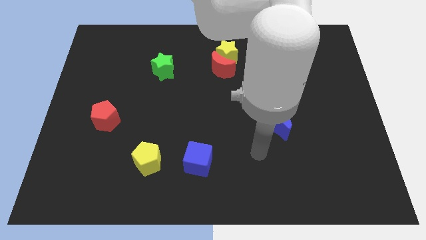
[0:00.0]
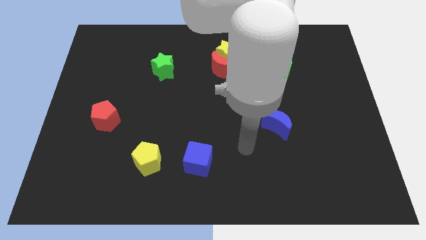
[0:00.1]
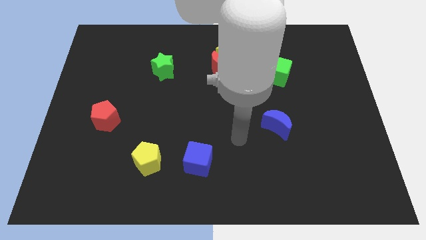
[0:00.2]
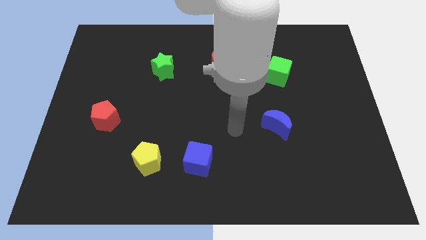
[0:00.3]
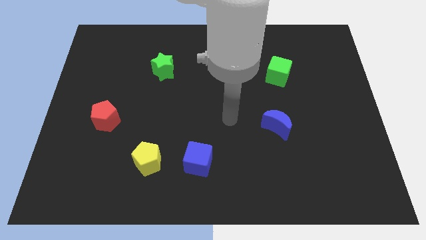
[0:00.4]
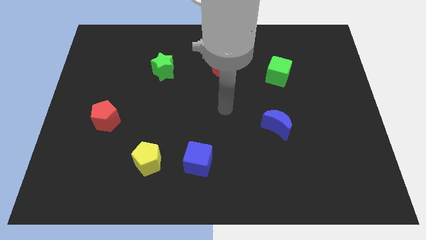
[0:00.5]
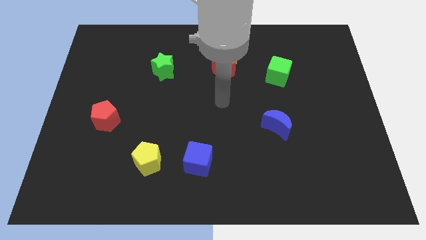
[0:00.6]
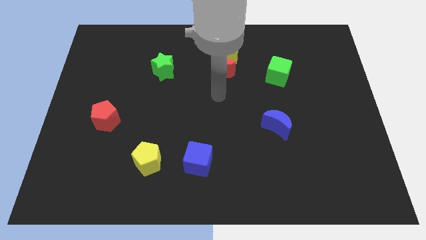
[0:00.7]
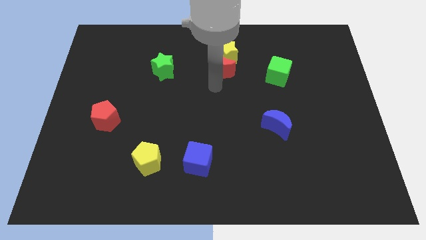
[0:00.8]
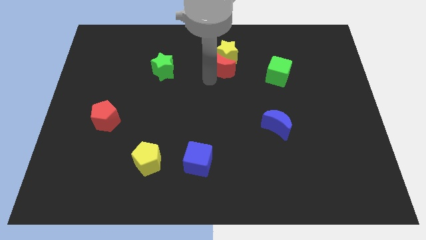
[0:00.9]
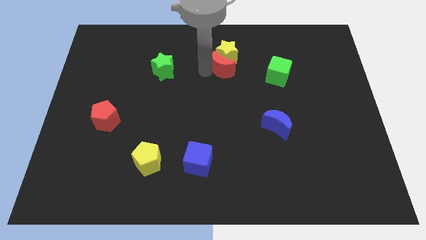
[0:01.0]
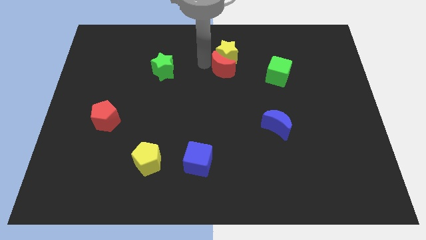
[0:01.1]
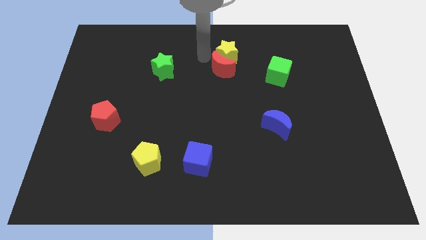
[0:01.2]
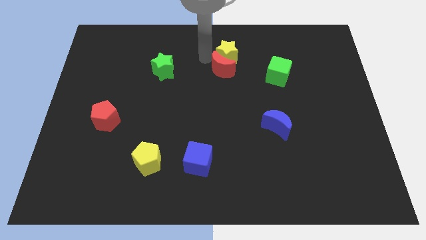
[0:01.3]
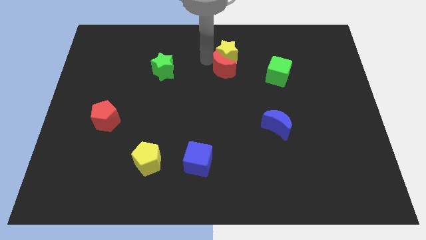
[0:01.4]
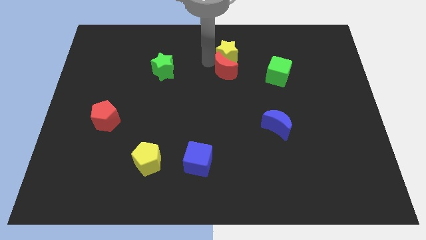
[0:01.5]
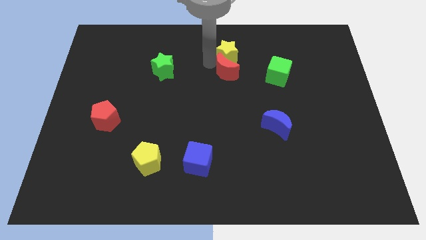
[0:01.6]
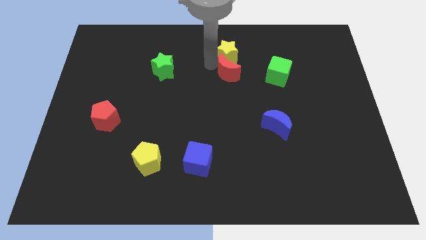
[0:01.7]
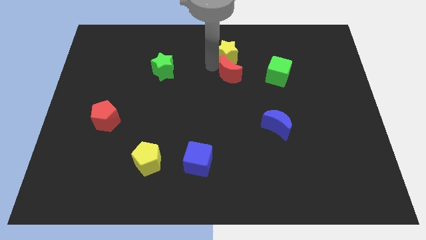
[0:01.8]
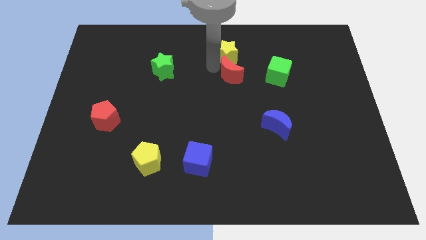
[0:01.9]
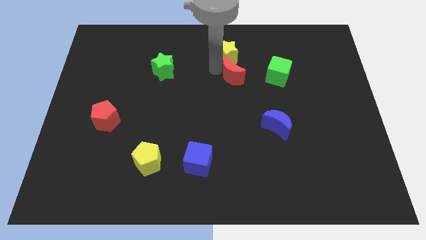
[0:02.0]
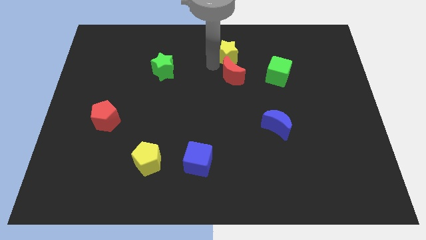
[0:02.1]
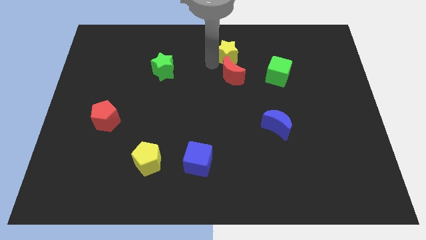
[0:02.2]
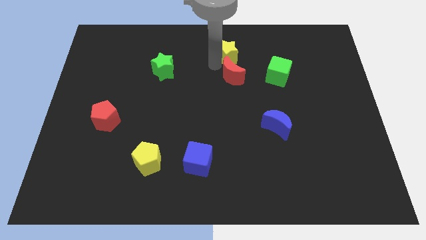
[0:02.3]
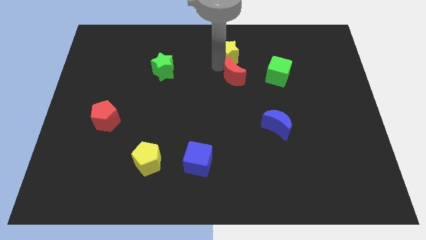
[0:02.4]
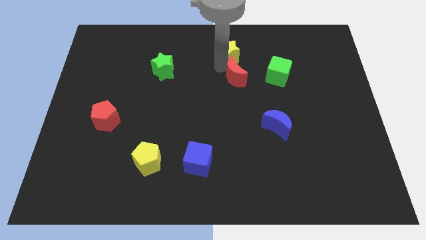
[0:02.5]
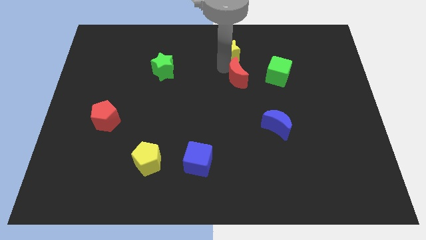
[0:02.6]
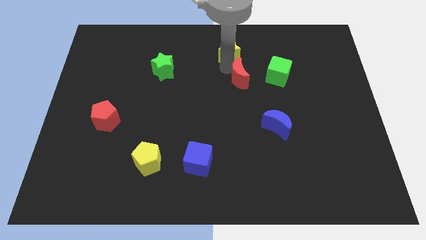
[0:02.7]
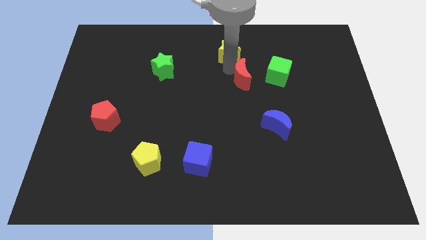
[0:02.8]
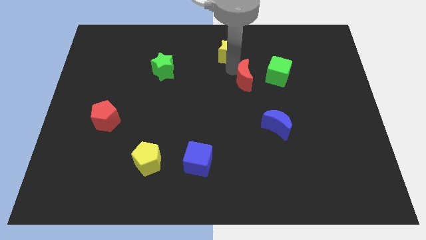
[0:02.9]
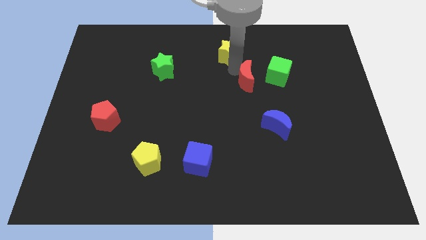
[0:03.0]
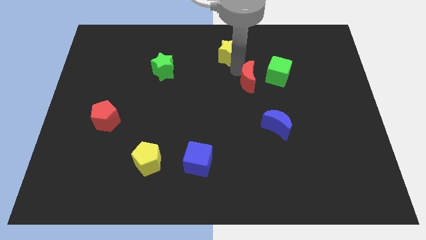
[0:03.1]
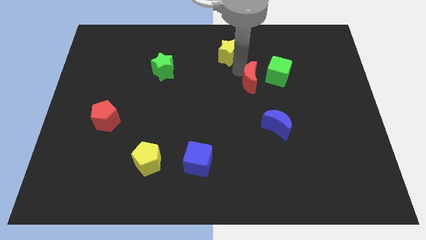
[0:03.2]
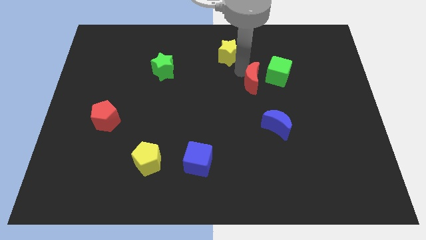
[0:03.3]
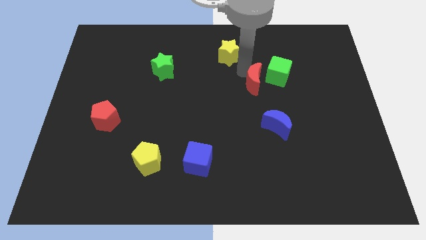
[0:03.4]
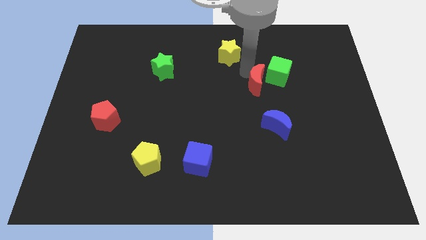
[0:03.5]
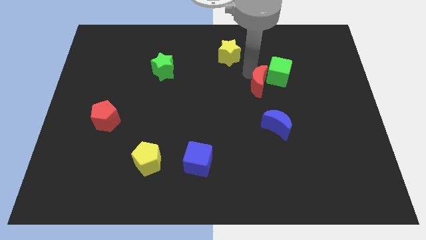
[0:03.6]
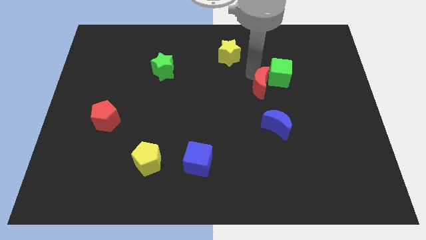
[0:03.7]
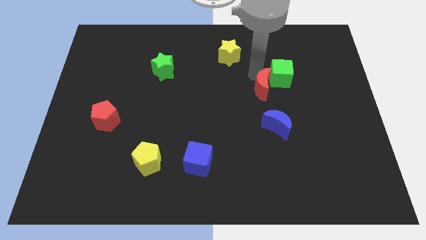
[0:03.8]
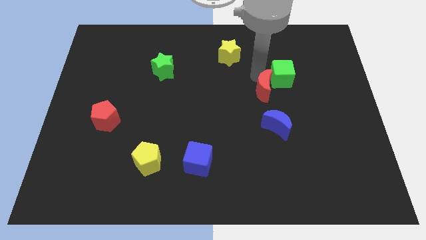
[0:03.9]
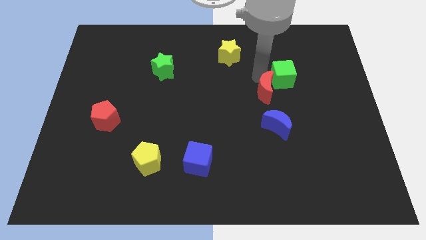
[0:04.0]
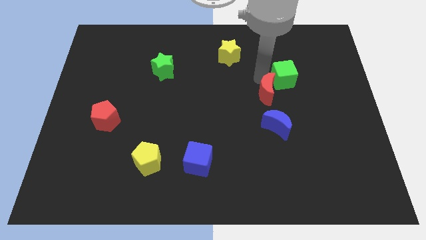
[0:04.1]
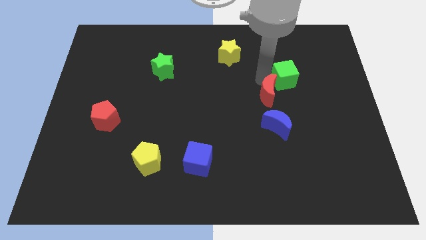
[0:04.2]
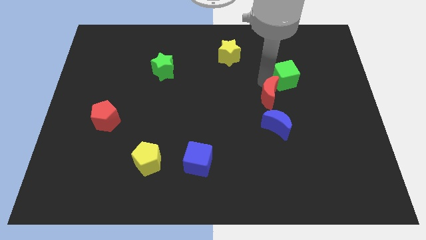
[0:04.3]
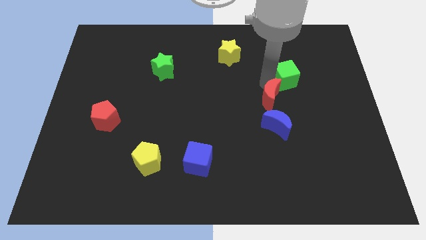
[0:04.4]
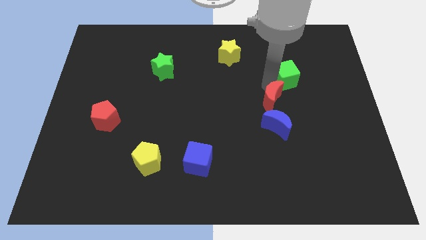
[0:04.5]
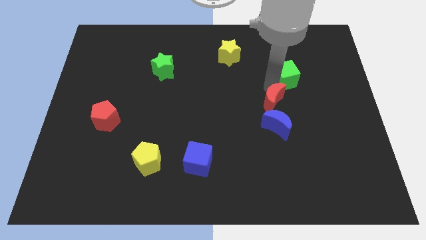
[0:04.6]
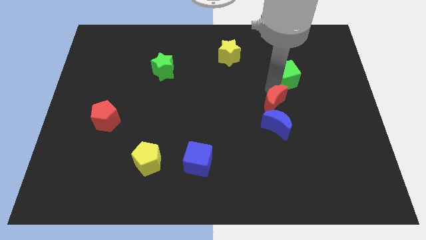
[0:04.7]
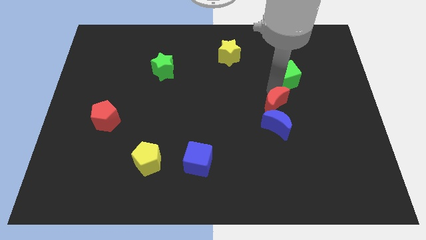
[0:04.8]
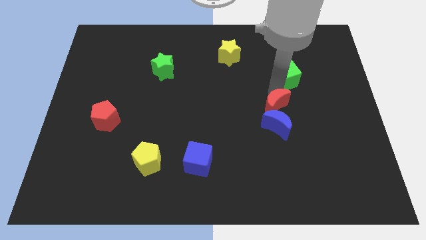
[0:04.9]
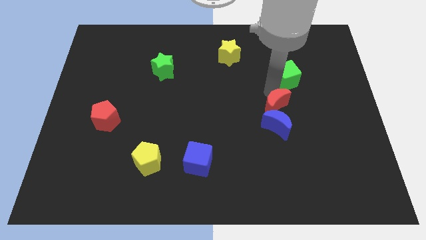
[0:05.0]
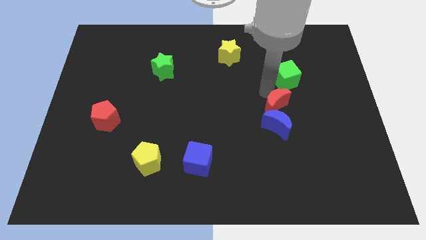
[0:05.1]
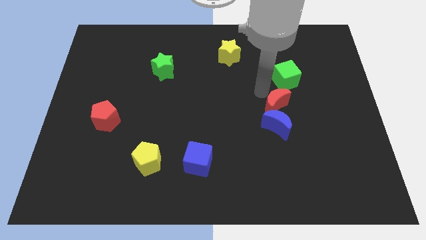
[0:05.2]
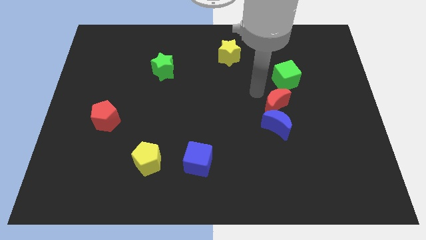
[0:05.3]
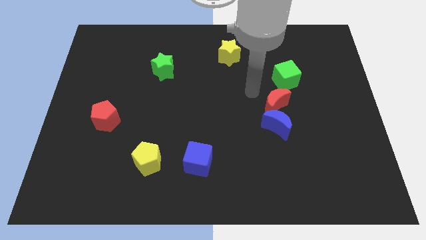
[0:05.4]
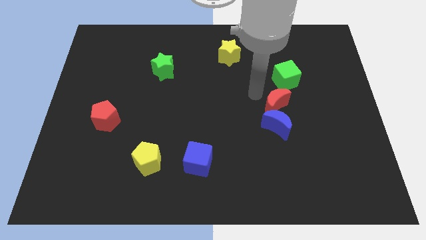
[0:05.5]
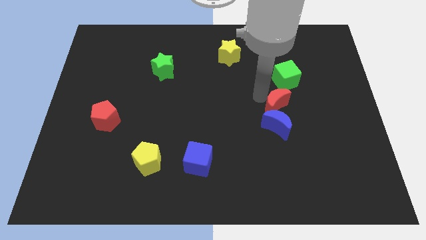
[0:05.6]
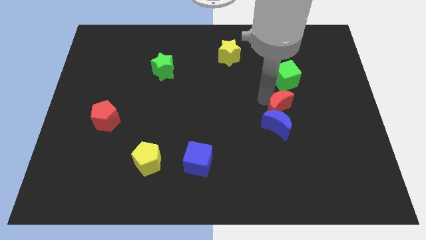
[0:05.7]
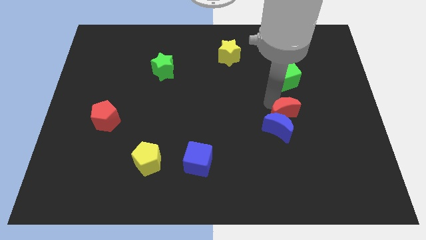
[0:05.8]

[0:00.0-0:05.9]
slide the red moon downwards and then right

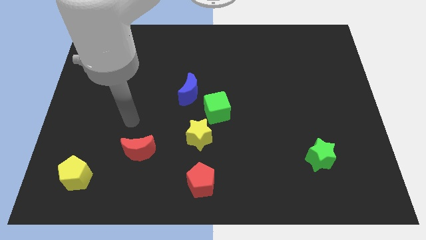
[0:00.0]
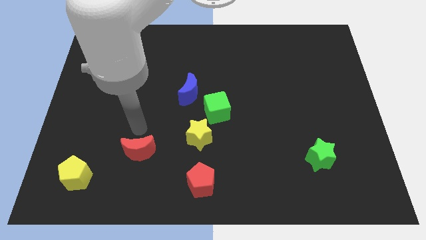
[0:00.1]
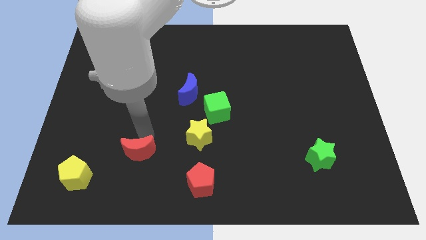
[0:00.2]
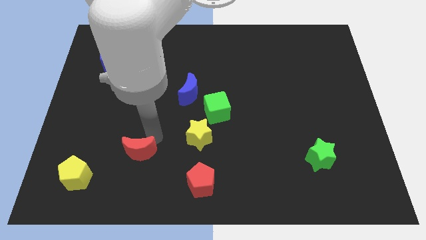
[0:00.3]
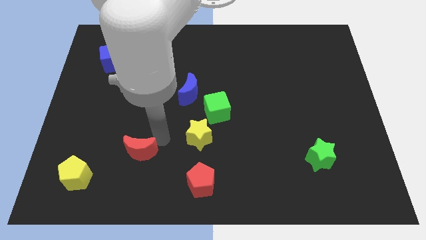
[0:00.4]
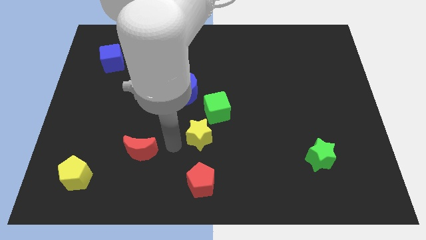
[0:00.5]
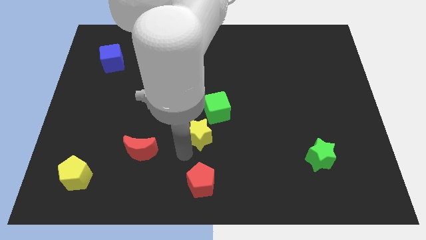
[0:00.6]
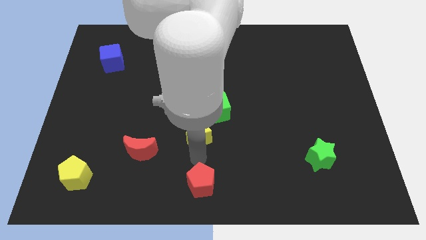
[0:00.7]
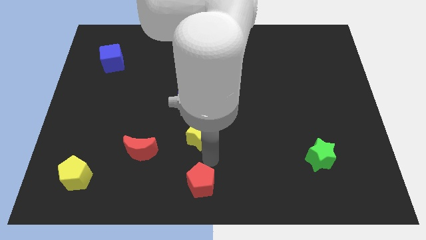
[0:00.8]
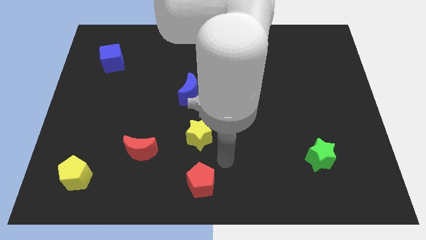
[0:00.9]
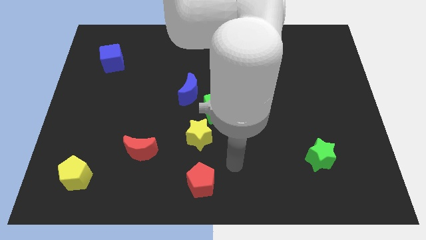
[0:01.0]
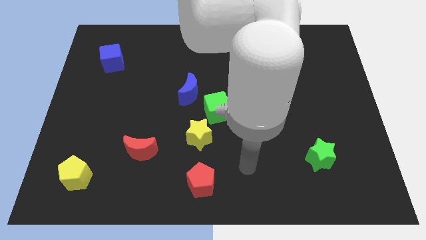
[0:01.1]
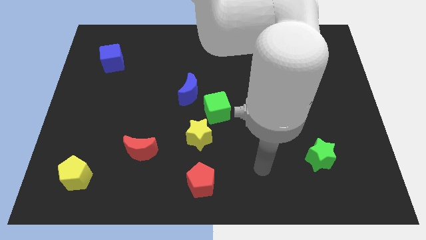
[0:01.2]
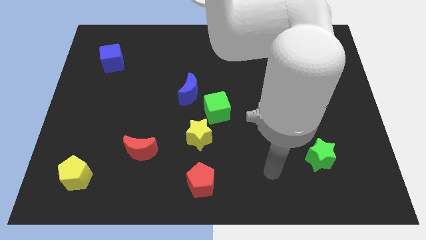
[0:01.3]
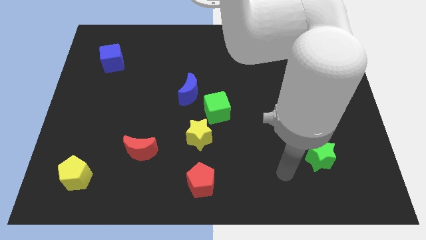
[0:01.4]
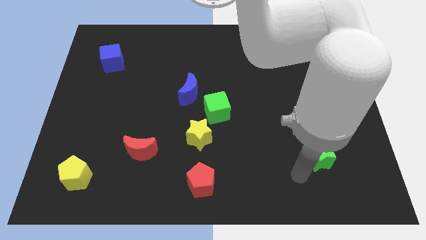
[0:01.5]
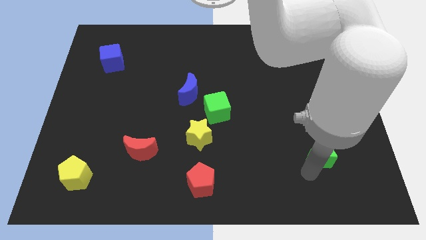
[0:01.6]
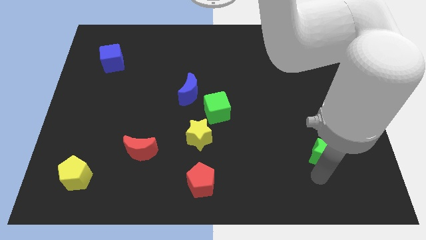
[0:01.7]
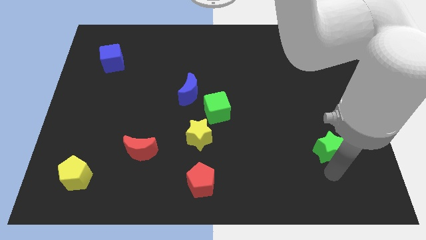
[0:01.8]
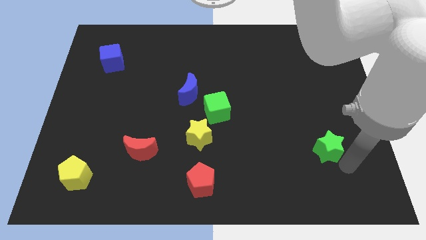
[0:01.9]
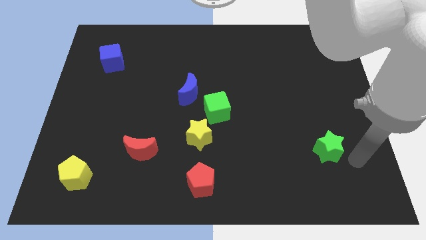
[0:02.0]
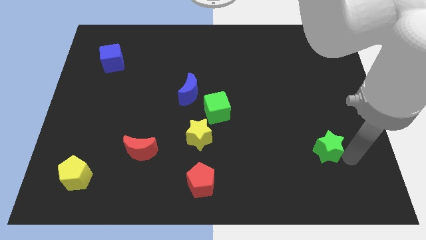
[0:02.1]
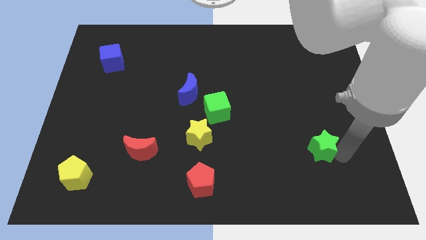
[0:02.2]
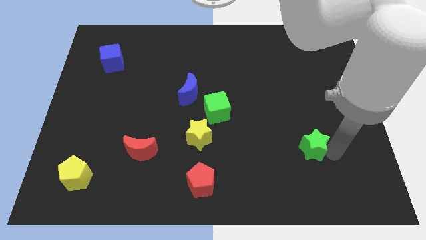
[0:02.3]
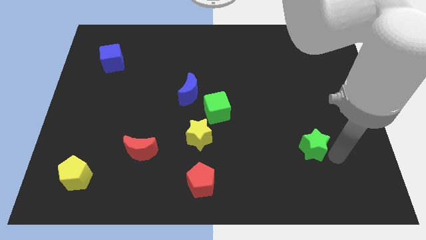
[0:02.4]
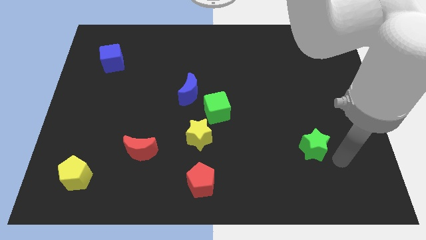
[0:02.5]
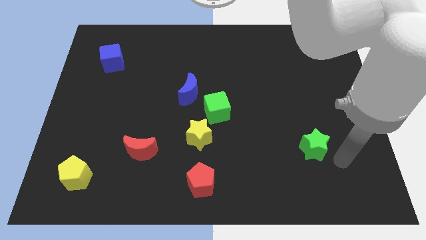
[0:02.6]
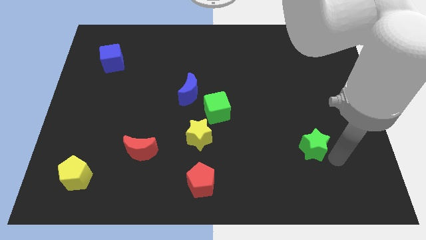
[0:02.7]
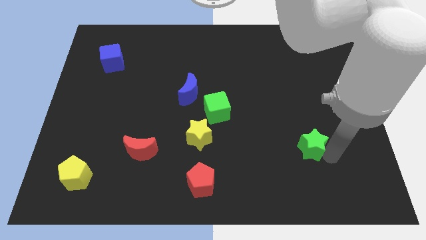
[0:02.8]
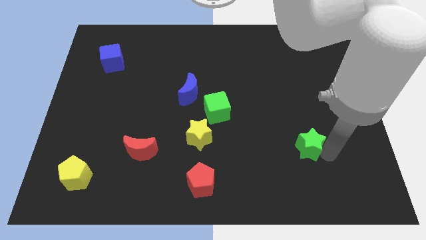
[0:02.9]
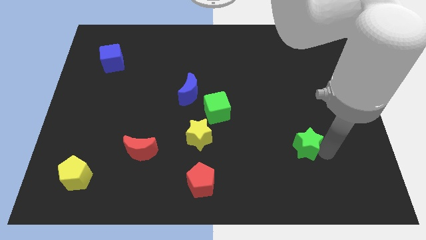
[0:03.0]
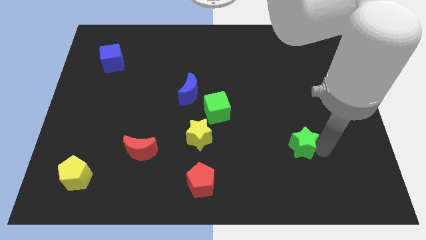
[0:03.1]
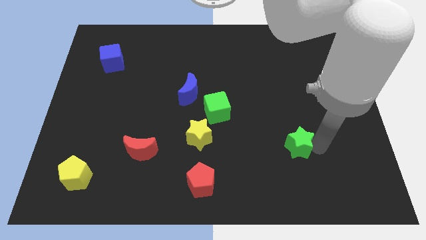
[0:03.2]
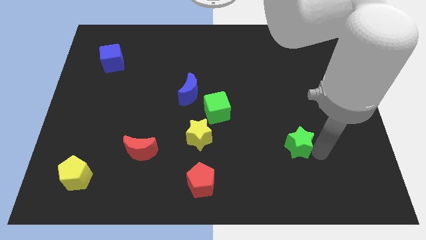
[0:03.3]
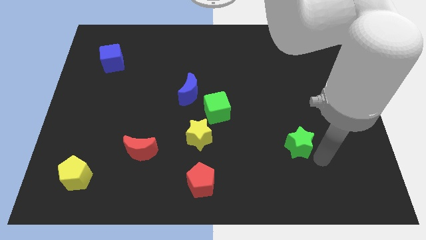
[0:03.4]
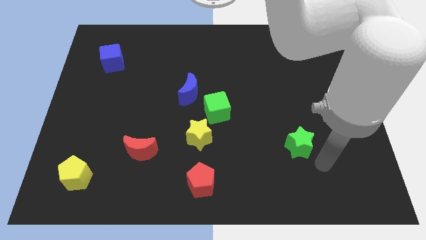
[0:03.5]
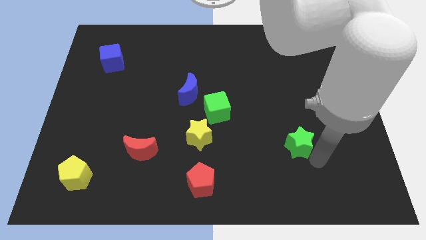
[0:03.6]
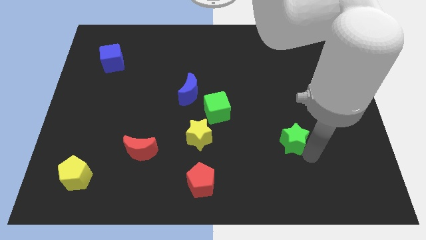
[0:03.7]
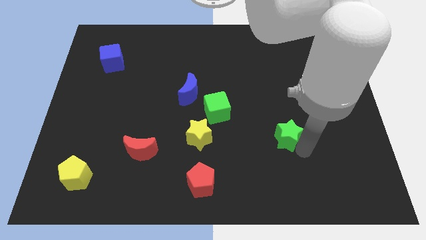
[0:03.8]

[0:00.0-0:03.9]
slightly push the green star upwards and left diagonally
